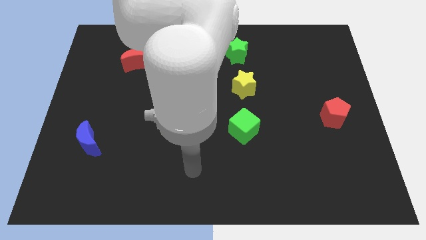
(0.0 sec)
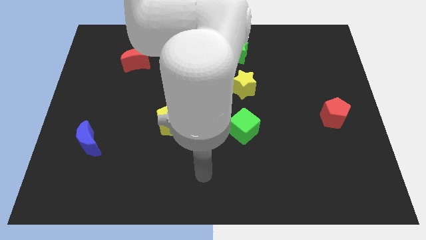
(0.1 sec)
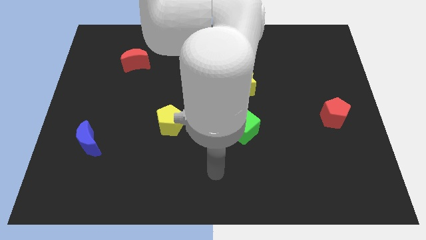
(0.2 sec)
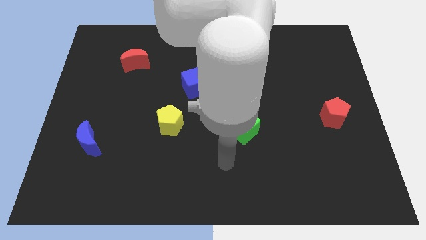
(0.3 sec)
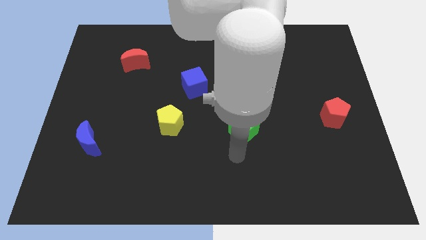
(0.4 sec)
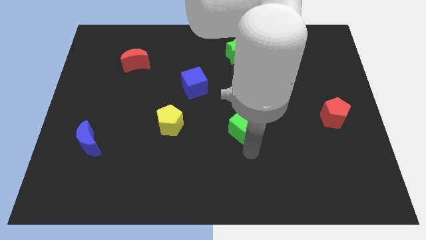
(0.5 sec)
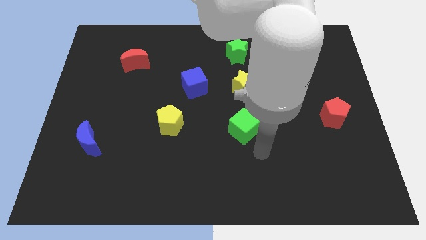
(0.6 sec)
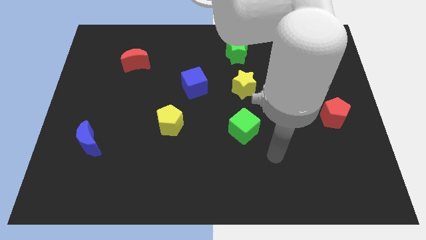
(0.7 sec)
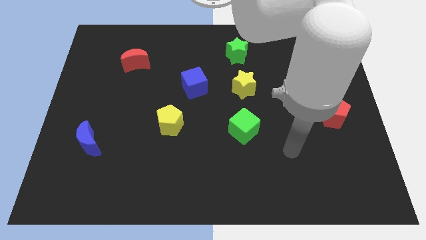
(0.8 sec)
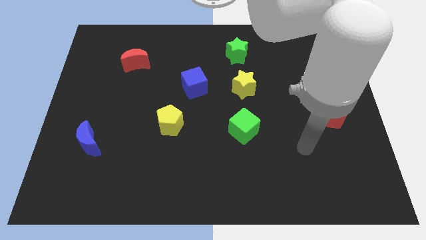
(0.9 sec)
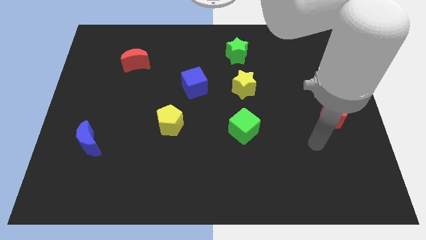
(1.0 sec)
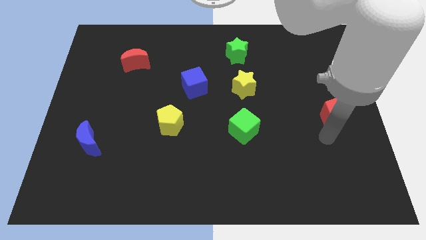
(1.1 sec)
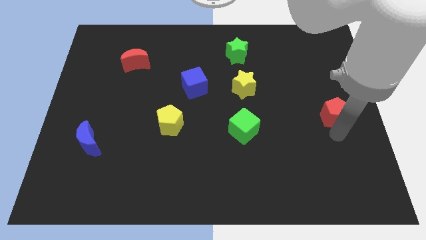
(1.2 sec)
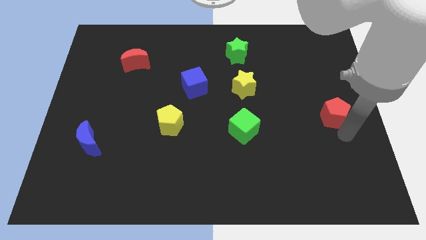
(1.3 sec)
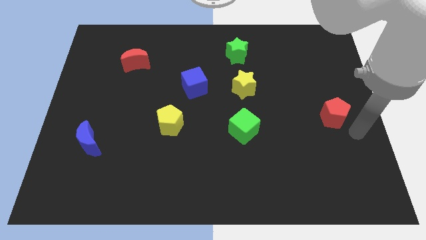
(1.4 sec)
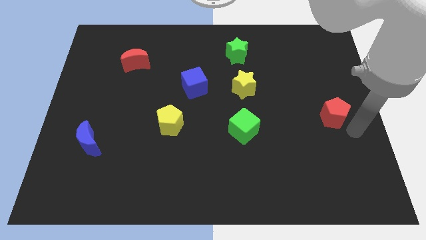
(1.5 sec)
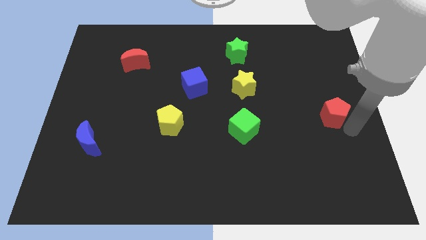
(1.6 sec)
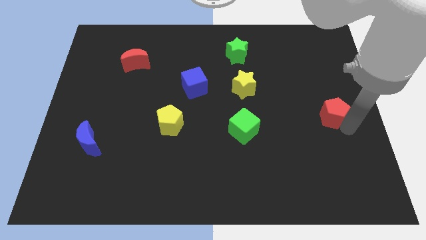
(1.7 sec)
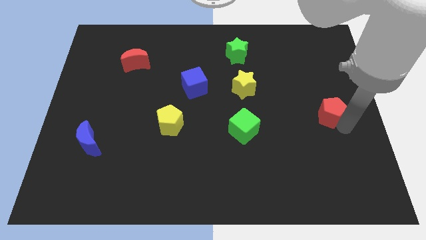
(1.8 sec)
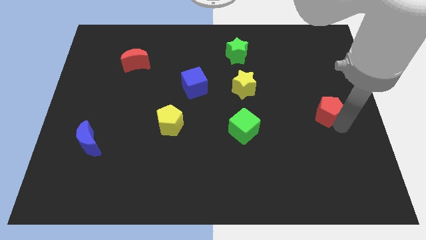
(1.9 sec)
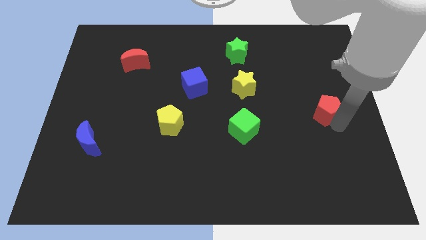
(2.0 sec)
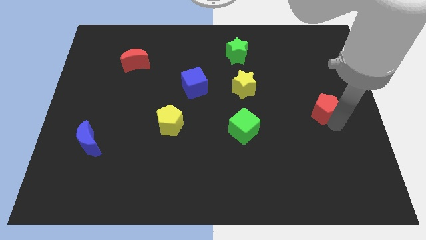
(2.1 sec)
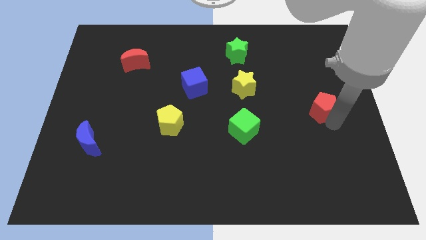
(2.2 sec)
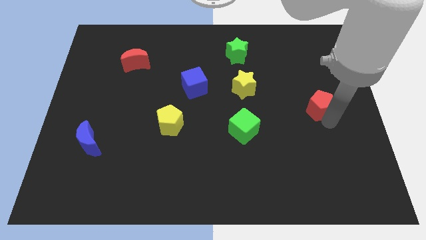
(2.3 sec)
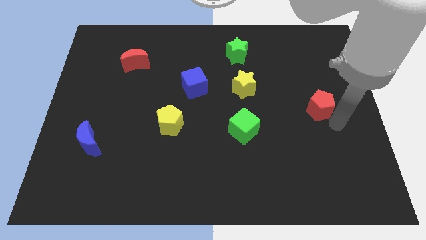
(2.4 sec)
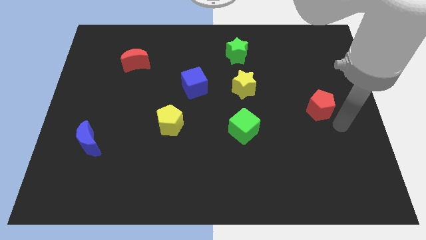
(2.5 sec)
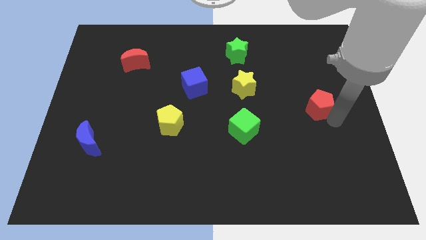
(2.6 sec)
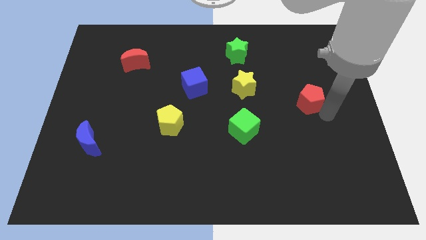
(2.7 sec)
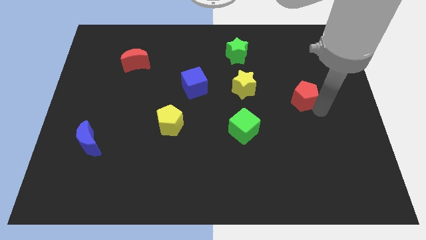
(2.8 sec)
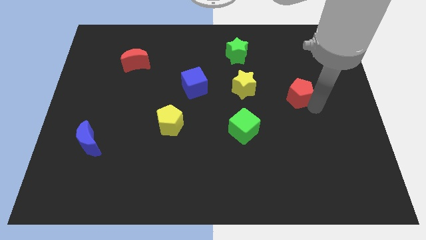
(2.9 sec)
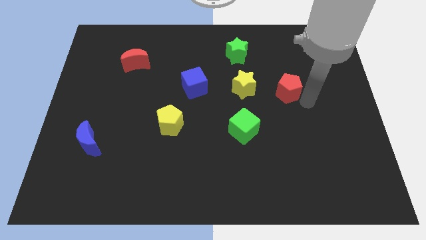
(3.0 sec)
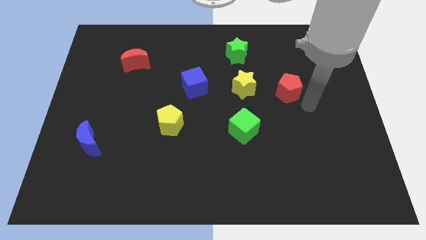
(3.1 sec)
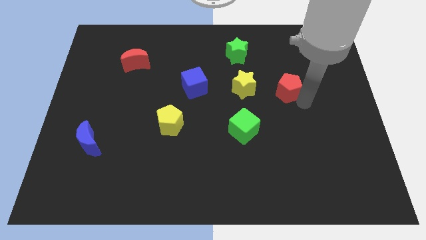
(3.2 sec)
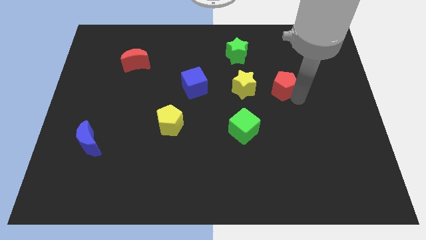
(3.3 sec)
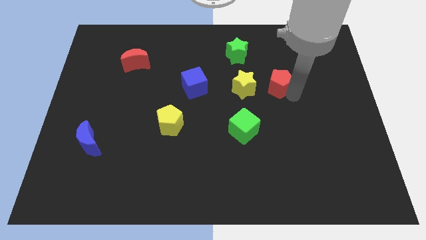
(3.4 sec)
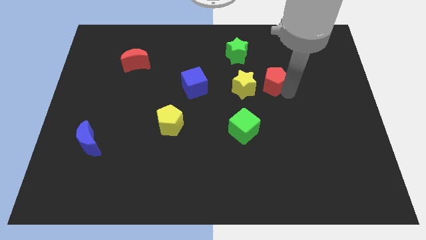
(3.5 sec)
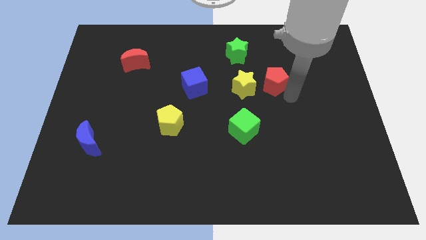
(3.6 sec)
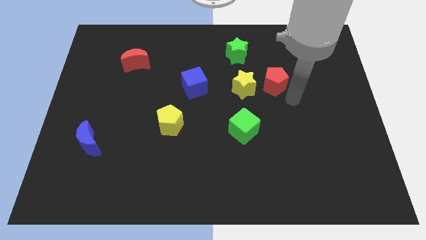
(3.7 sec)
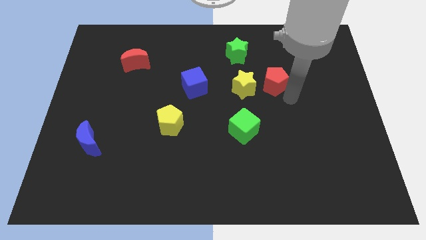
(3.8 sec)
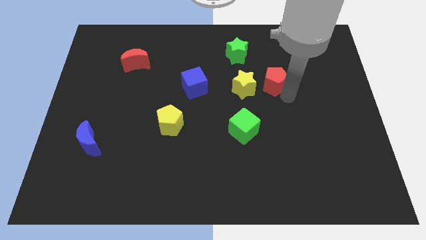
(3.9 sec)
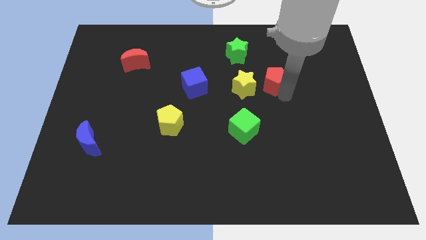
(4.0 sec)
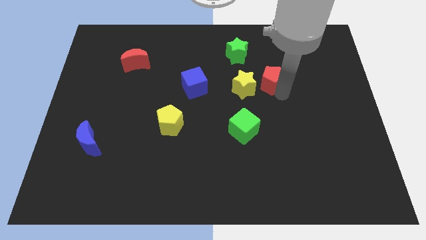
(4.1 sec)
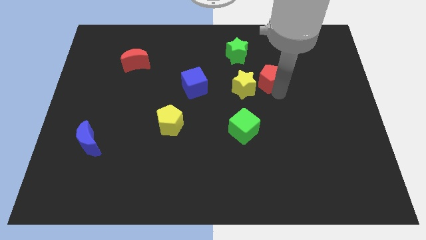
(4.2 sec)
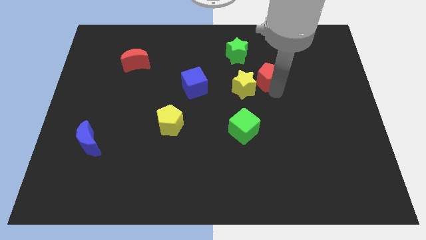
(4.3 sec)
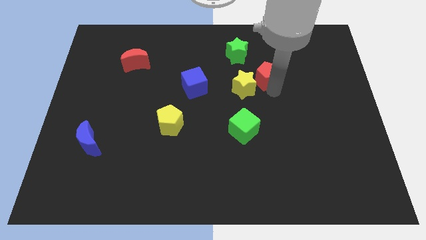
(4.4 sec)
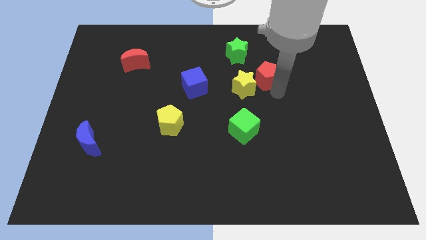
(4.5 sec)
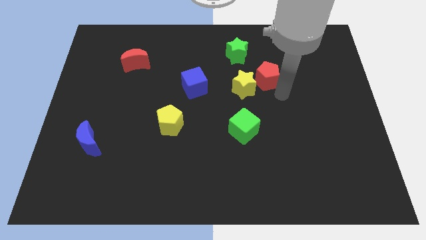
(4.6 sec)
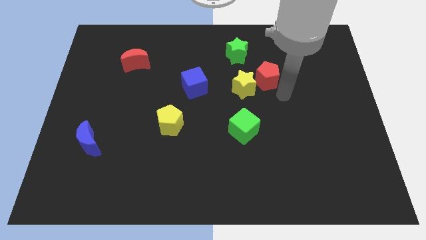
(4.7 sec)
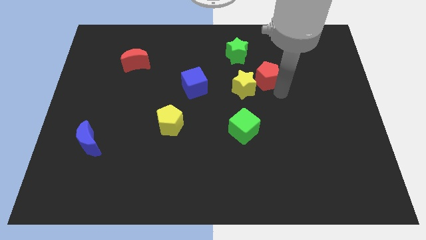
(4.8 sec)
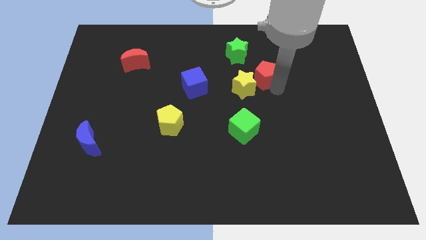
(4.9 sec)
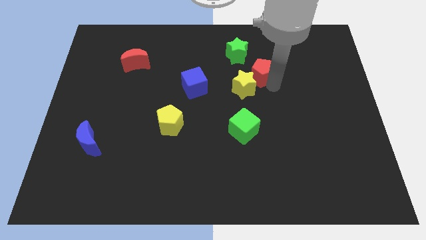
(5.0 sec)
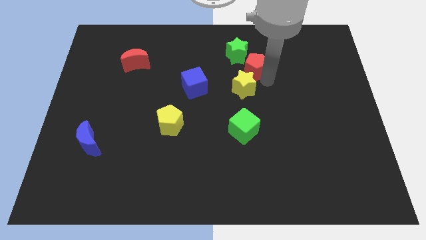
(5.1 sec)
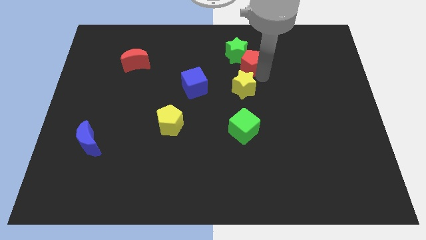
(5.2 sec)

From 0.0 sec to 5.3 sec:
push the red pentagon next to the green star

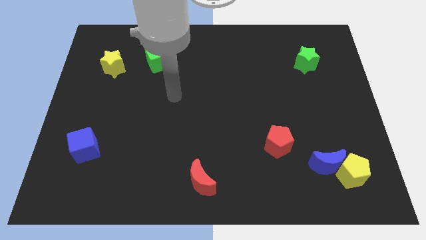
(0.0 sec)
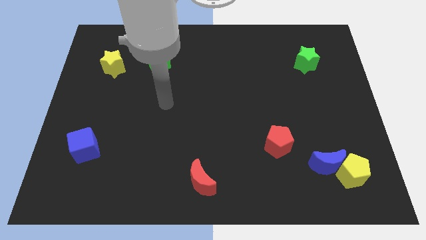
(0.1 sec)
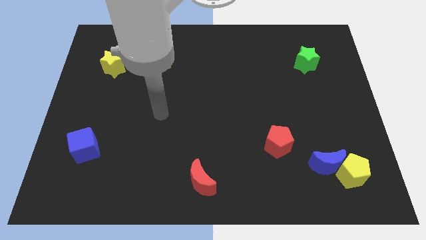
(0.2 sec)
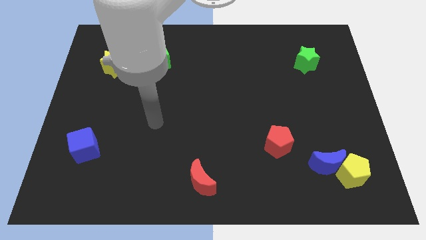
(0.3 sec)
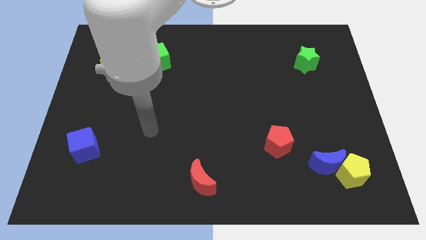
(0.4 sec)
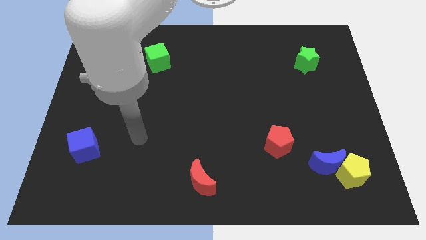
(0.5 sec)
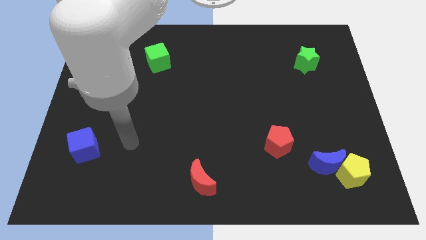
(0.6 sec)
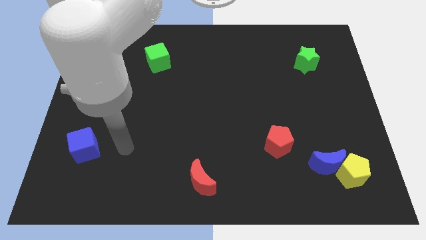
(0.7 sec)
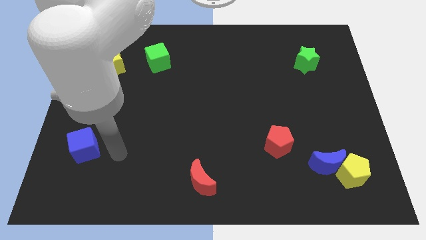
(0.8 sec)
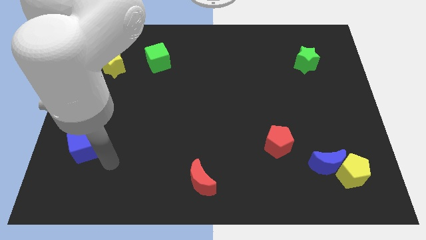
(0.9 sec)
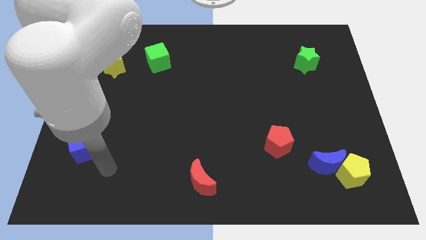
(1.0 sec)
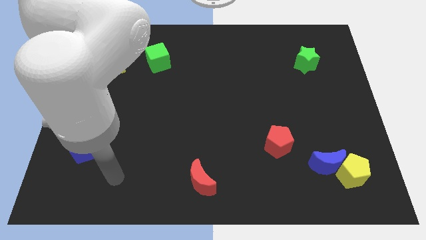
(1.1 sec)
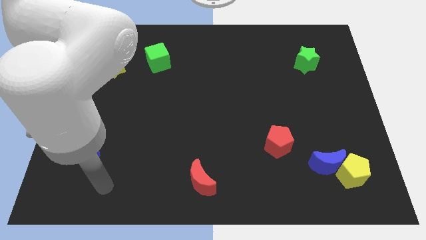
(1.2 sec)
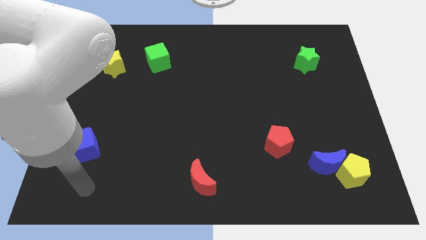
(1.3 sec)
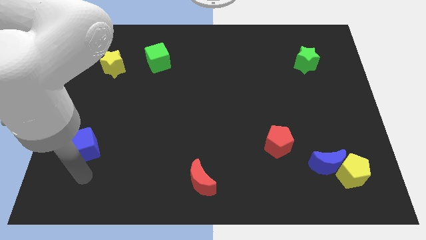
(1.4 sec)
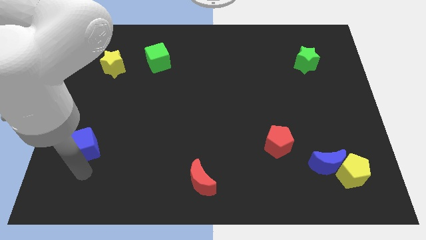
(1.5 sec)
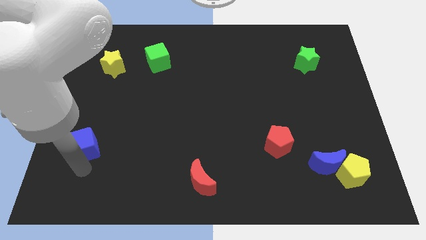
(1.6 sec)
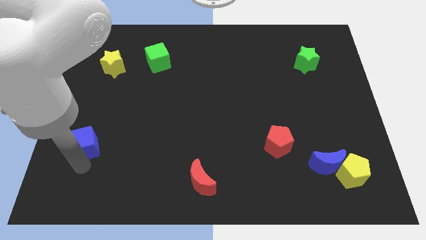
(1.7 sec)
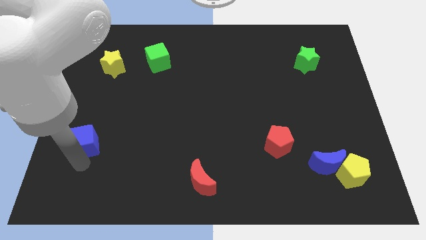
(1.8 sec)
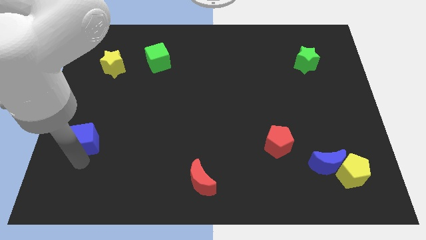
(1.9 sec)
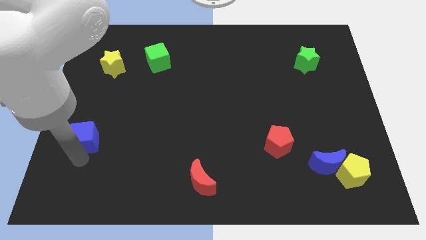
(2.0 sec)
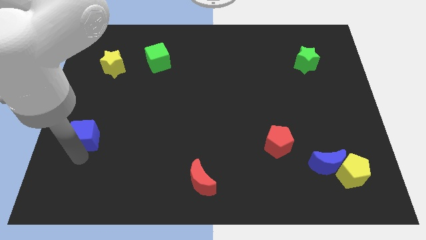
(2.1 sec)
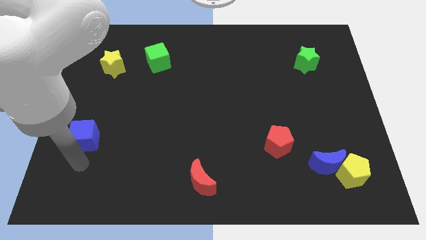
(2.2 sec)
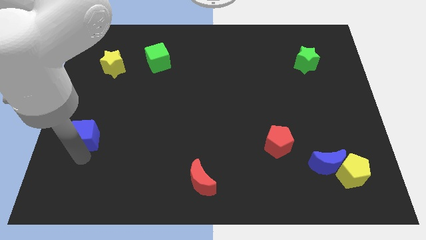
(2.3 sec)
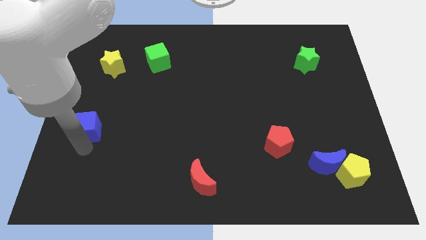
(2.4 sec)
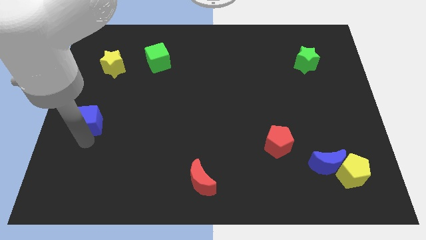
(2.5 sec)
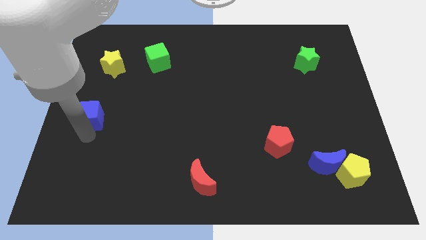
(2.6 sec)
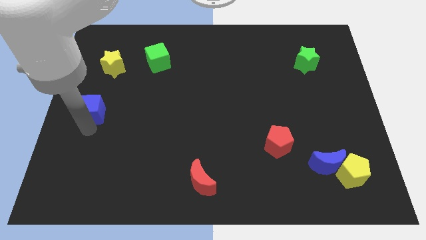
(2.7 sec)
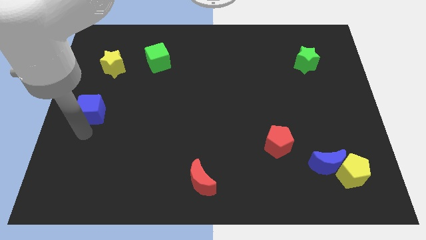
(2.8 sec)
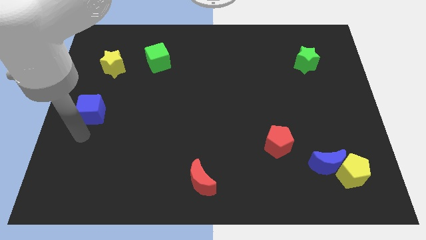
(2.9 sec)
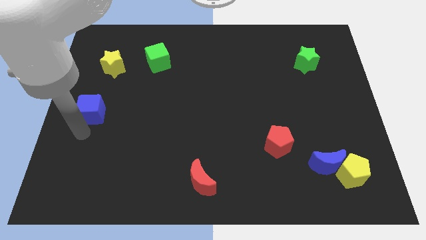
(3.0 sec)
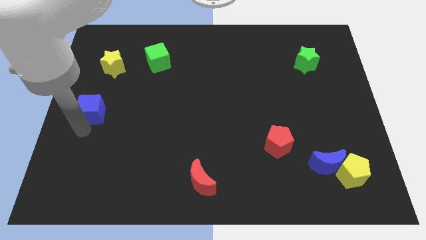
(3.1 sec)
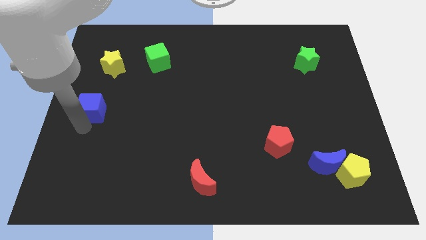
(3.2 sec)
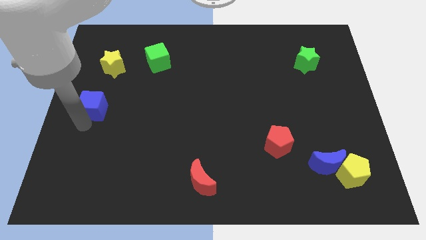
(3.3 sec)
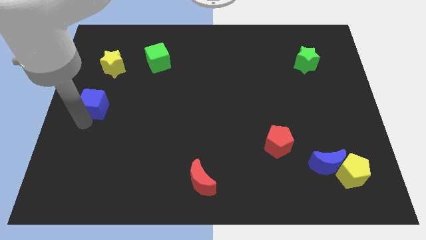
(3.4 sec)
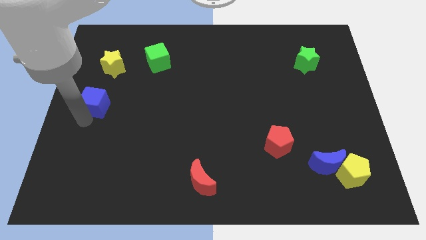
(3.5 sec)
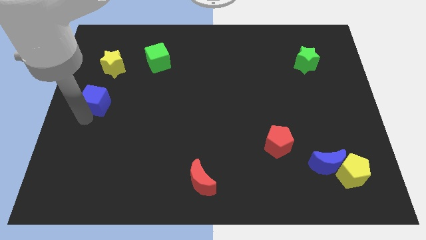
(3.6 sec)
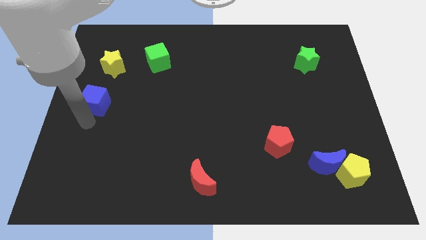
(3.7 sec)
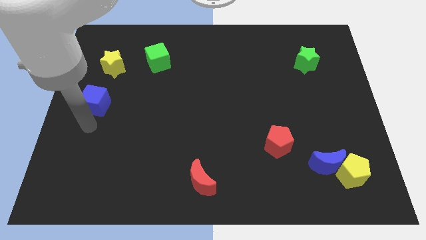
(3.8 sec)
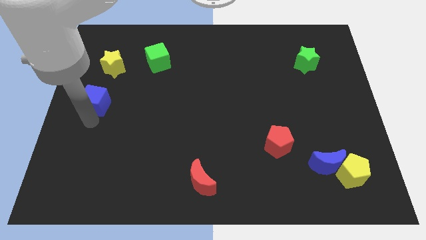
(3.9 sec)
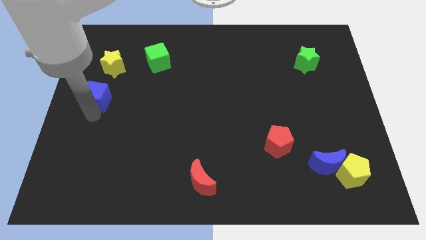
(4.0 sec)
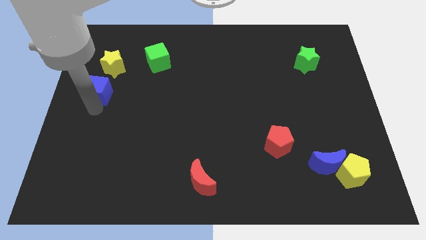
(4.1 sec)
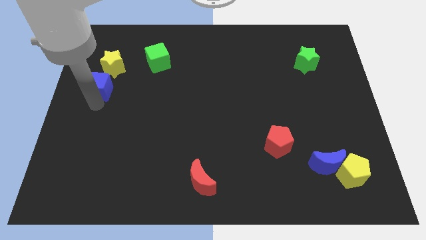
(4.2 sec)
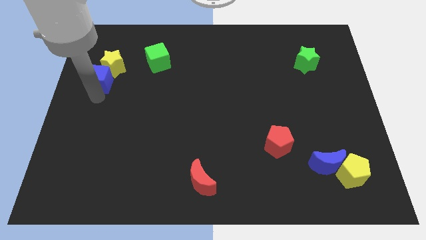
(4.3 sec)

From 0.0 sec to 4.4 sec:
move the blue cube close to the yellow star
